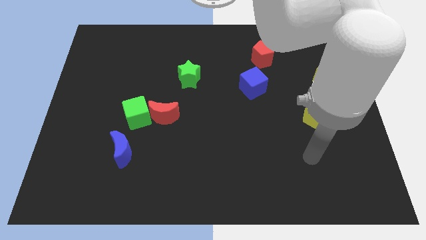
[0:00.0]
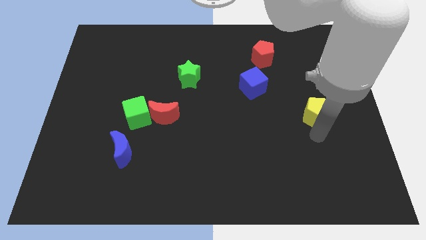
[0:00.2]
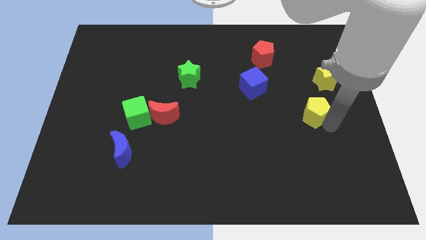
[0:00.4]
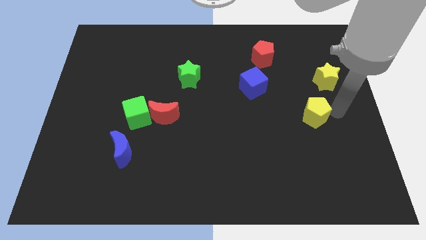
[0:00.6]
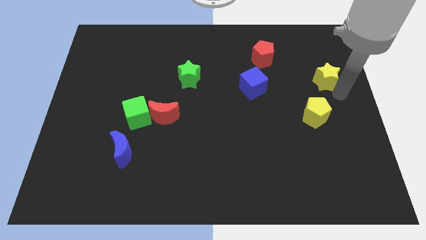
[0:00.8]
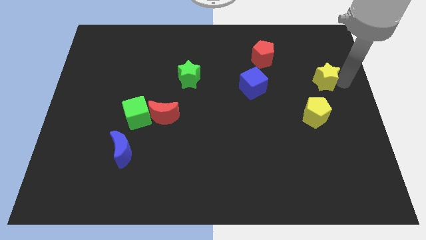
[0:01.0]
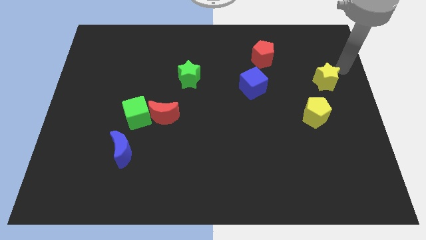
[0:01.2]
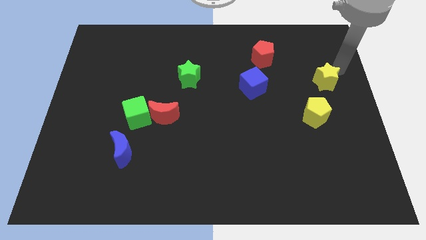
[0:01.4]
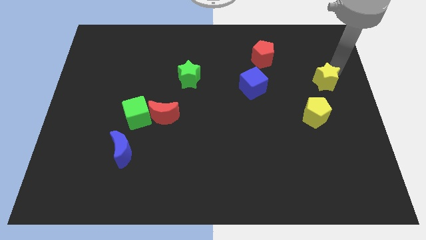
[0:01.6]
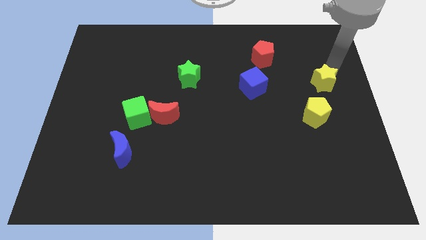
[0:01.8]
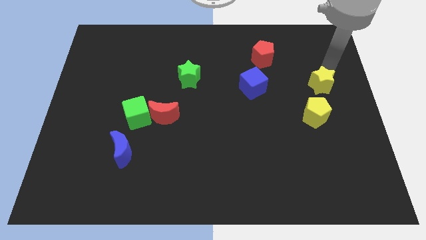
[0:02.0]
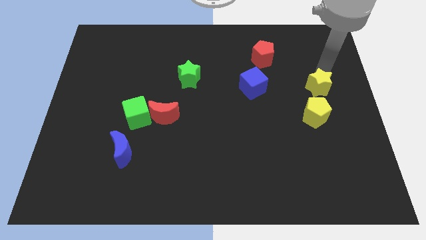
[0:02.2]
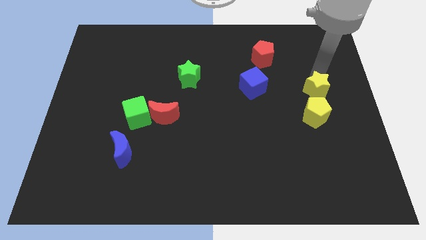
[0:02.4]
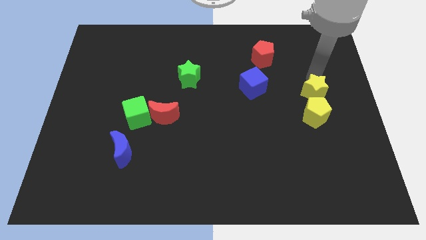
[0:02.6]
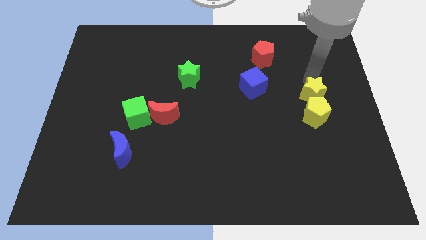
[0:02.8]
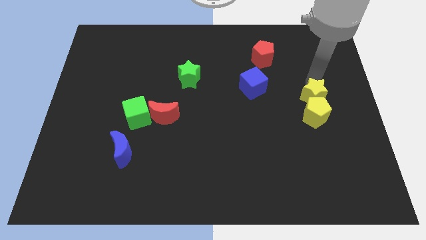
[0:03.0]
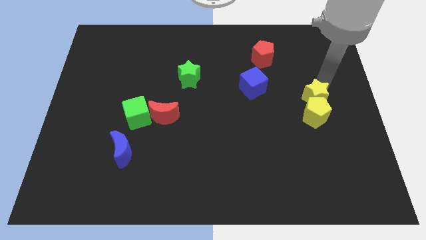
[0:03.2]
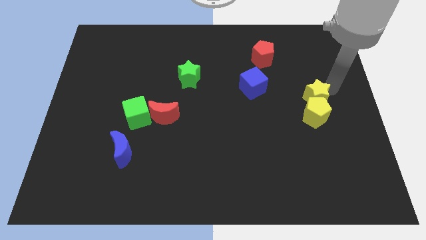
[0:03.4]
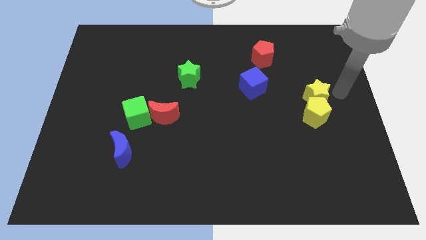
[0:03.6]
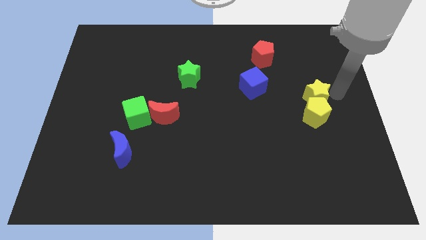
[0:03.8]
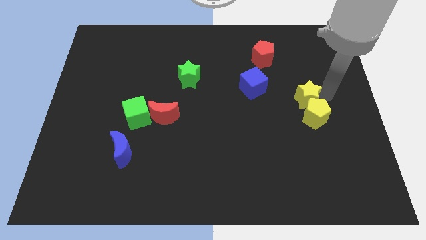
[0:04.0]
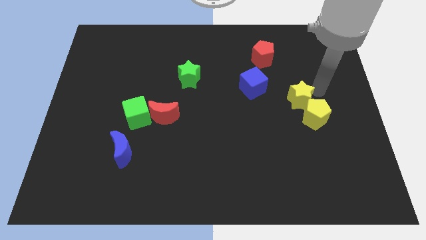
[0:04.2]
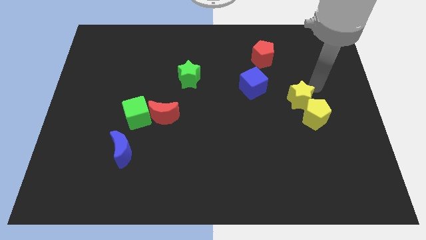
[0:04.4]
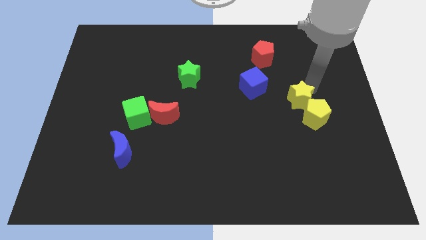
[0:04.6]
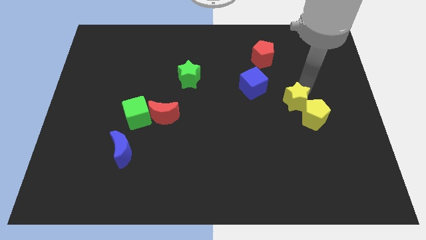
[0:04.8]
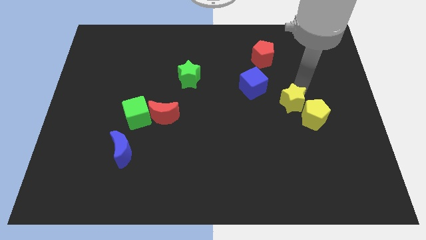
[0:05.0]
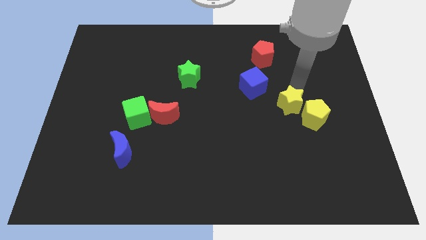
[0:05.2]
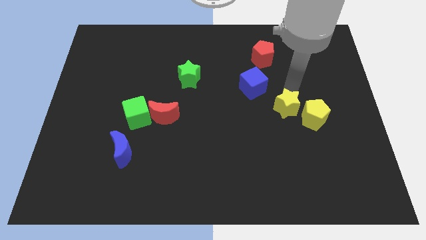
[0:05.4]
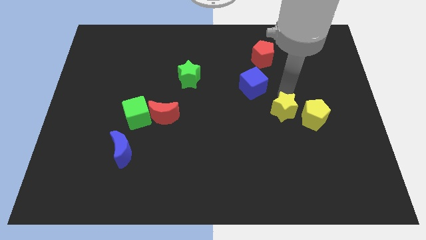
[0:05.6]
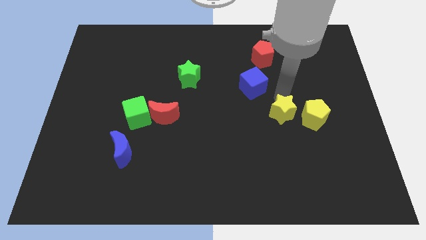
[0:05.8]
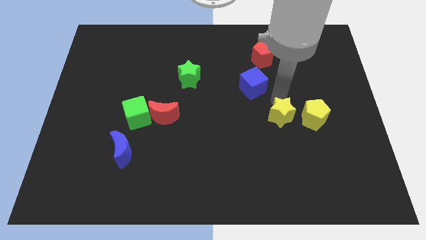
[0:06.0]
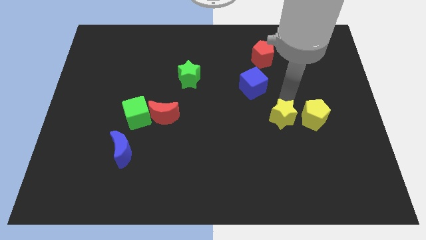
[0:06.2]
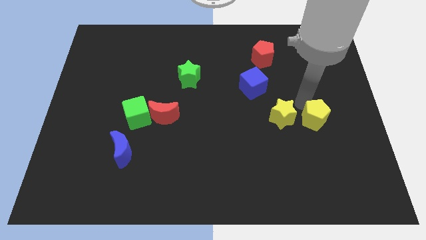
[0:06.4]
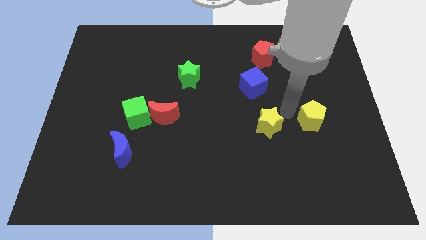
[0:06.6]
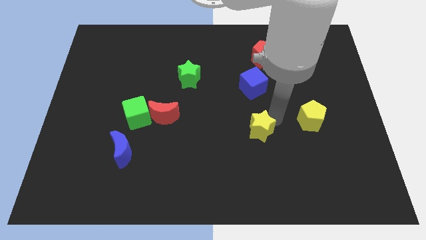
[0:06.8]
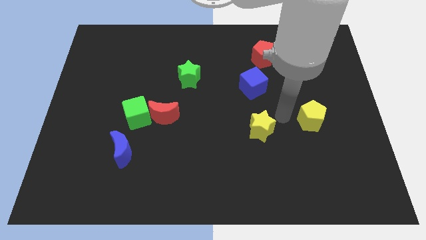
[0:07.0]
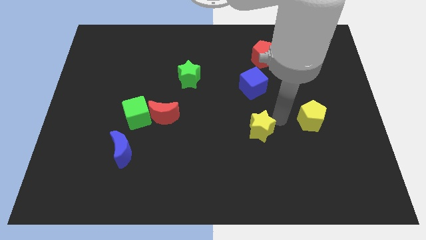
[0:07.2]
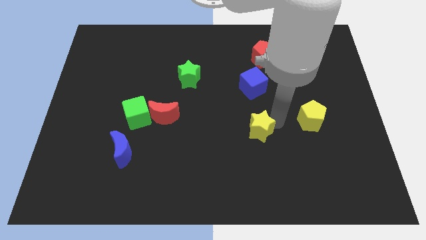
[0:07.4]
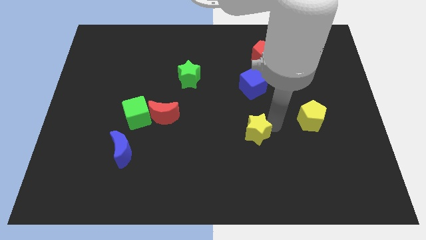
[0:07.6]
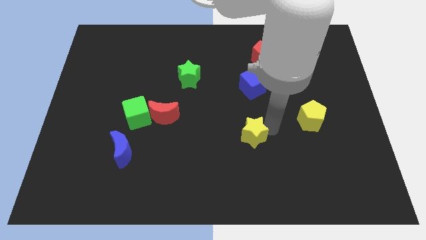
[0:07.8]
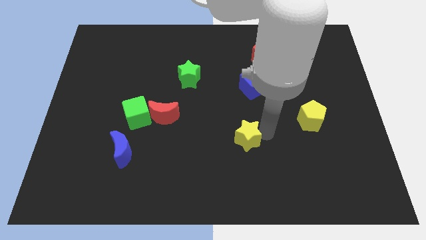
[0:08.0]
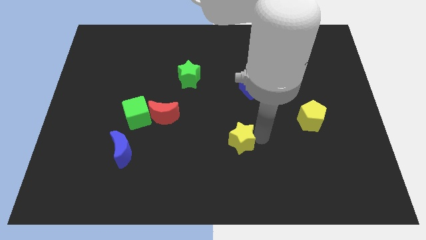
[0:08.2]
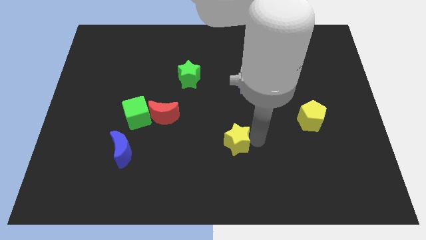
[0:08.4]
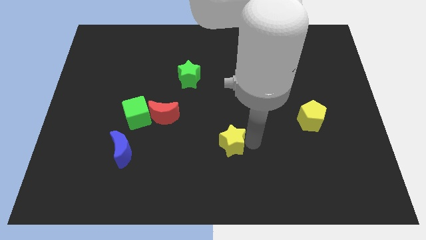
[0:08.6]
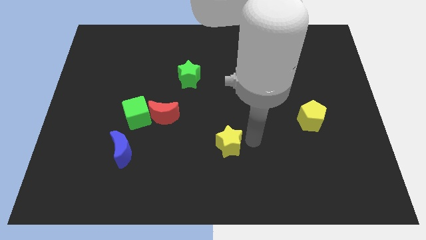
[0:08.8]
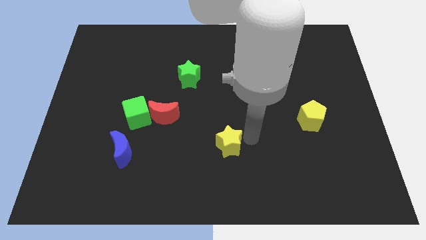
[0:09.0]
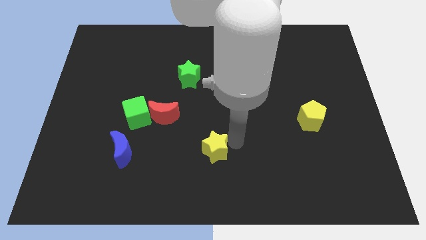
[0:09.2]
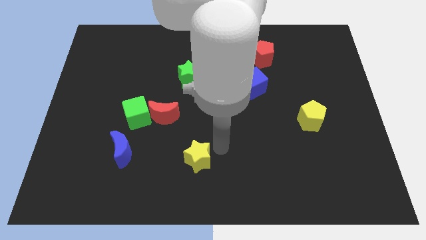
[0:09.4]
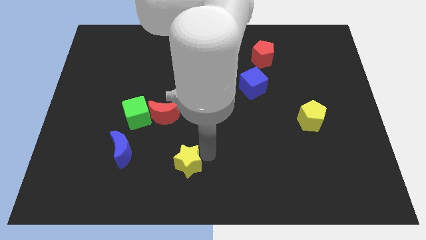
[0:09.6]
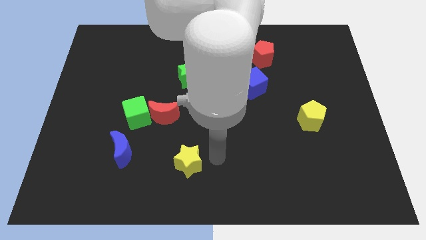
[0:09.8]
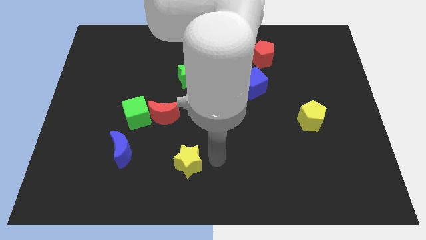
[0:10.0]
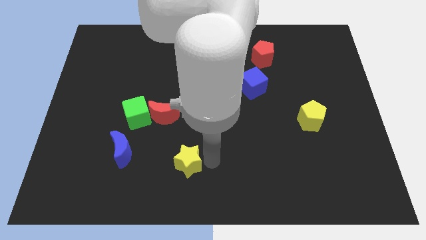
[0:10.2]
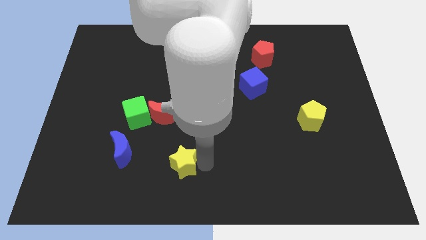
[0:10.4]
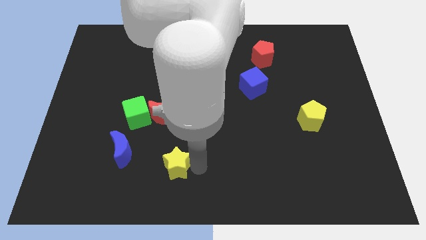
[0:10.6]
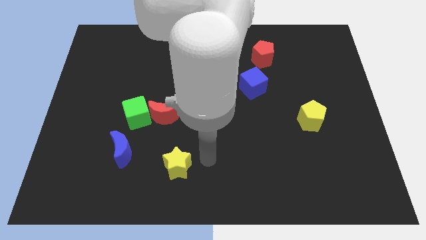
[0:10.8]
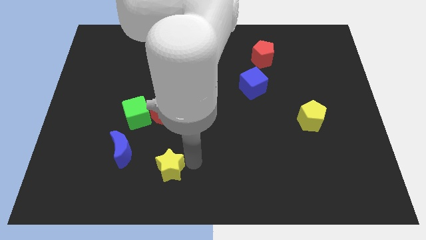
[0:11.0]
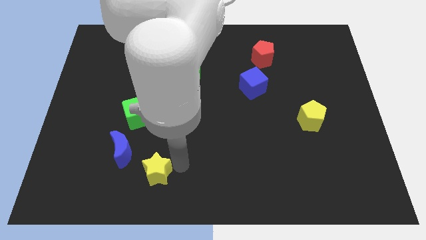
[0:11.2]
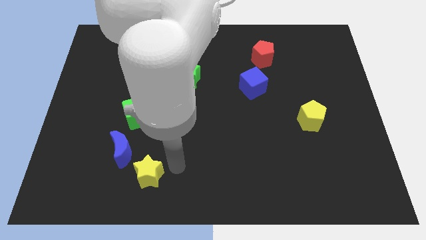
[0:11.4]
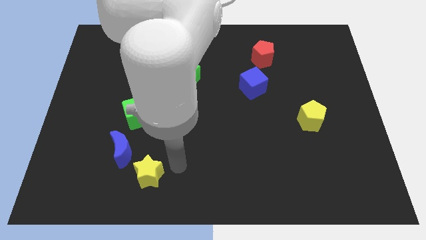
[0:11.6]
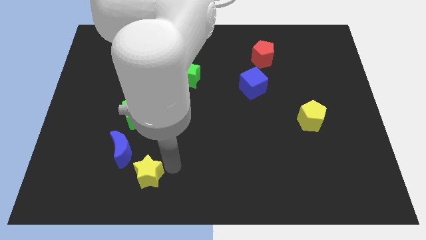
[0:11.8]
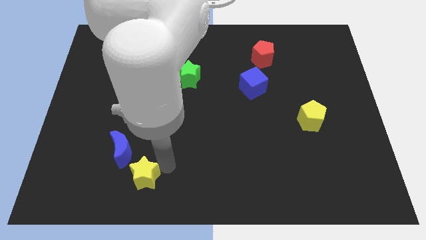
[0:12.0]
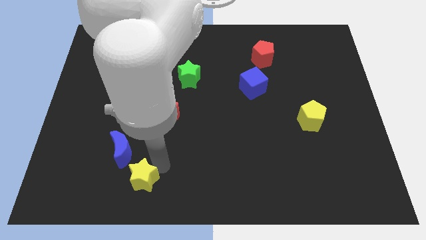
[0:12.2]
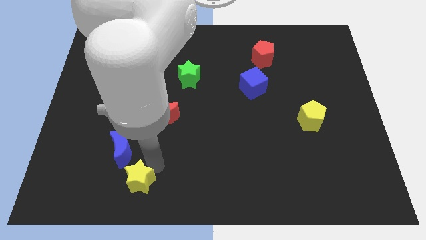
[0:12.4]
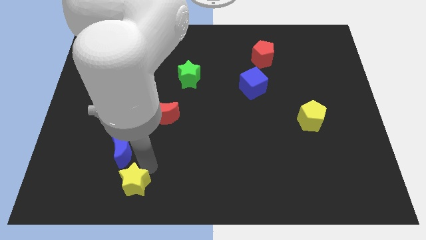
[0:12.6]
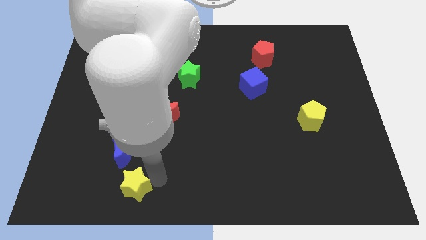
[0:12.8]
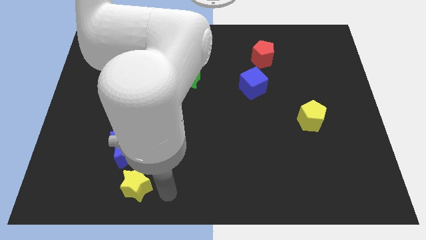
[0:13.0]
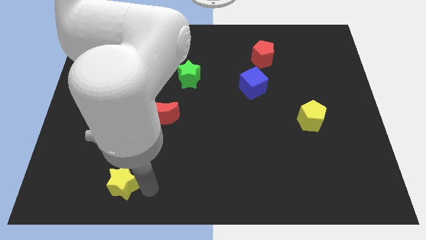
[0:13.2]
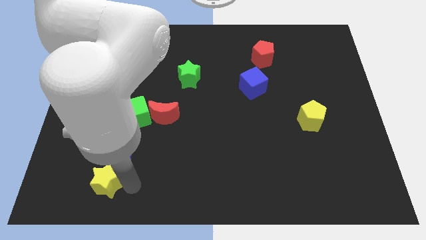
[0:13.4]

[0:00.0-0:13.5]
put the yellow star diagonally down and to the left of the blue moon
